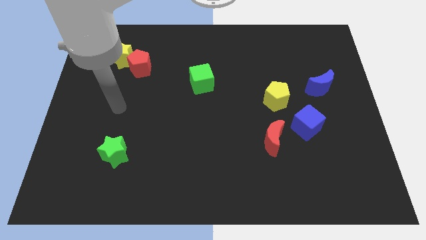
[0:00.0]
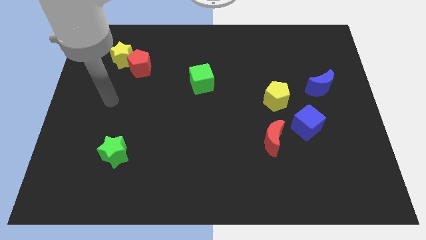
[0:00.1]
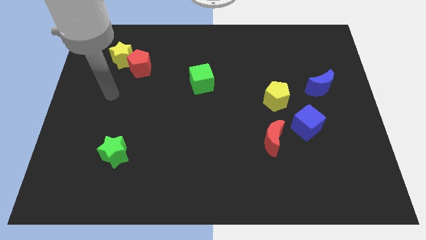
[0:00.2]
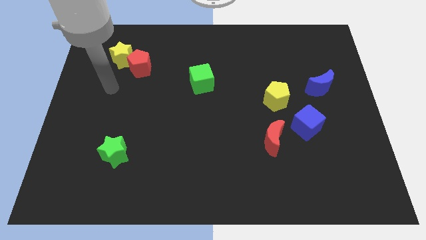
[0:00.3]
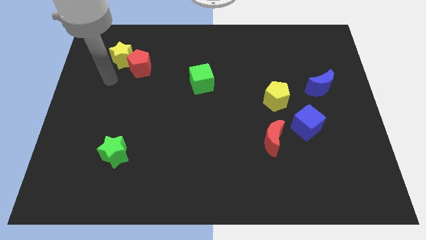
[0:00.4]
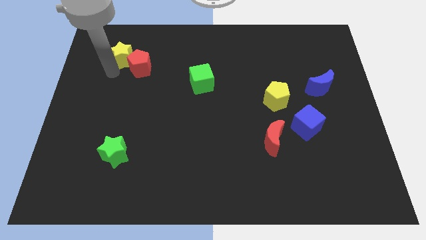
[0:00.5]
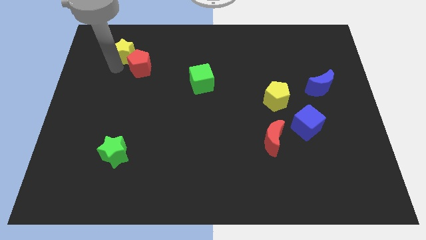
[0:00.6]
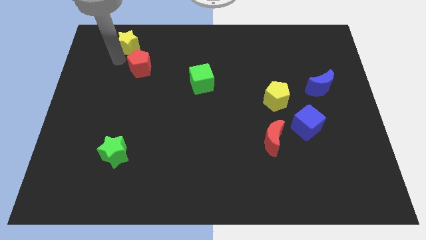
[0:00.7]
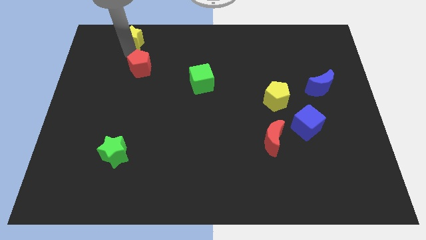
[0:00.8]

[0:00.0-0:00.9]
separate the red pentagon from the yellow star

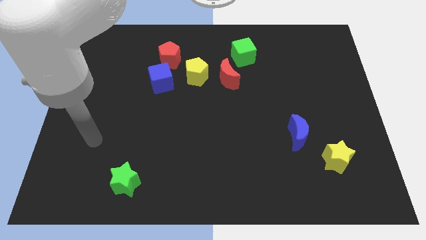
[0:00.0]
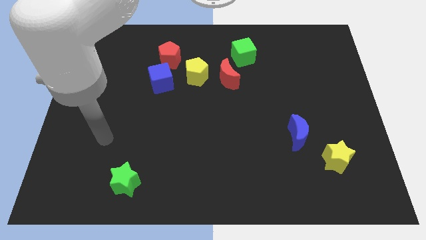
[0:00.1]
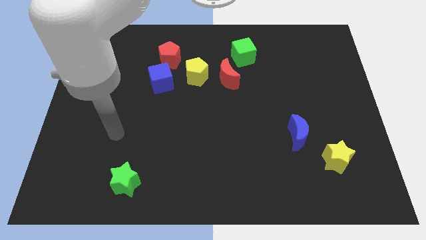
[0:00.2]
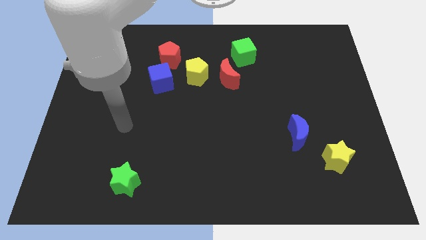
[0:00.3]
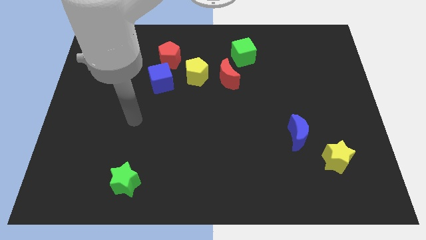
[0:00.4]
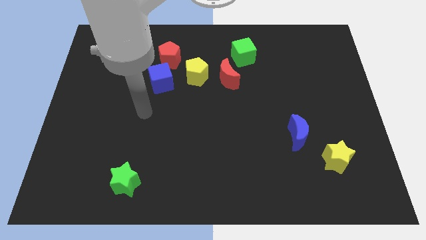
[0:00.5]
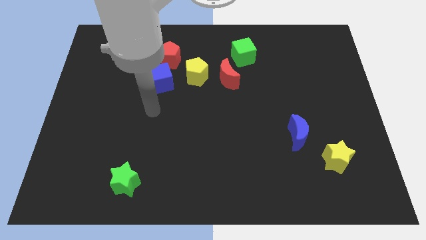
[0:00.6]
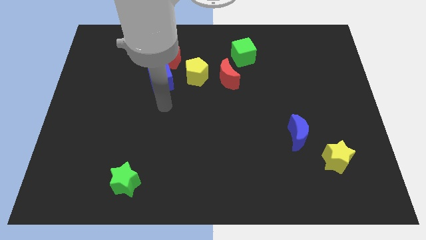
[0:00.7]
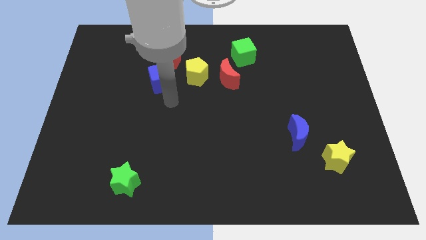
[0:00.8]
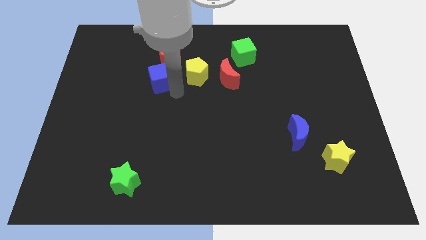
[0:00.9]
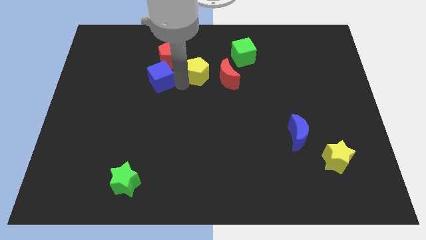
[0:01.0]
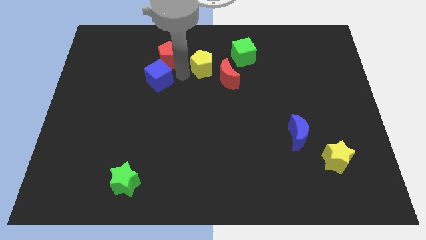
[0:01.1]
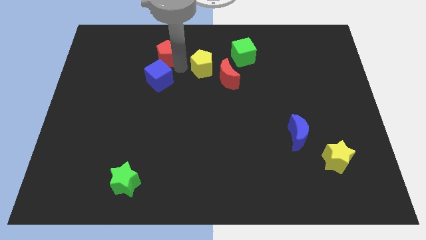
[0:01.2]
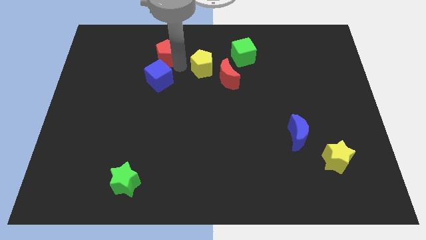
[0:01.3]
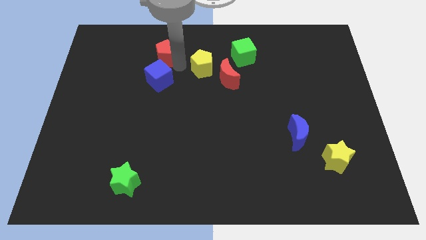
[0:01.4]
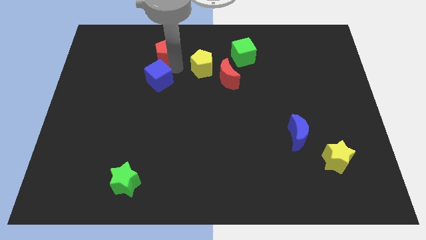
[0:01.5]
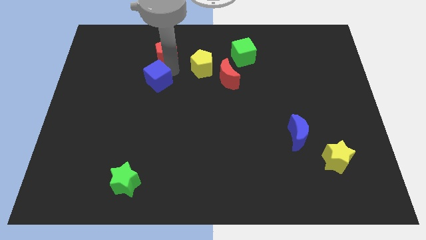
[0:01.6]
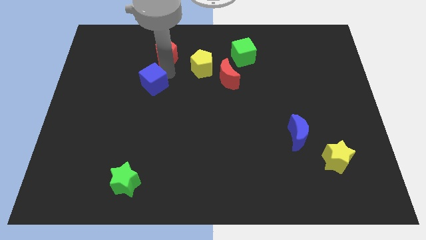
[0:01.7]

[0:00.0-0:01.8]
pull the blue cube apart from the red pentagon and yellow pentagon

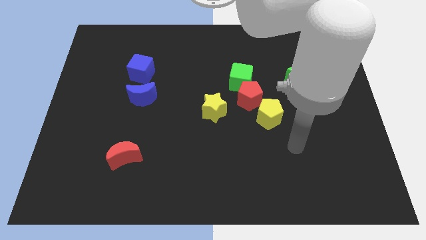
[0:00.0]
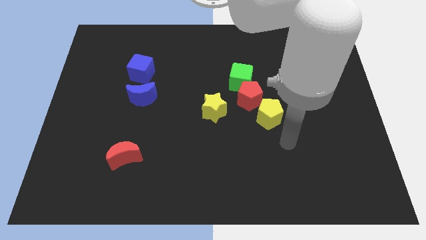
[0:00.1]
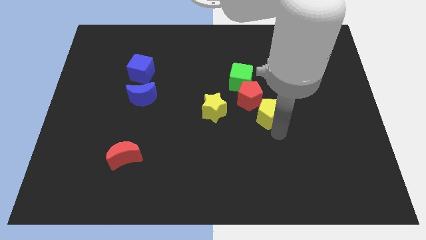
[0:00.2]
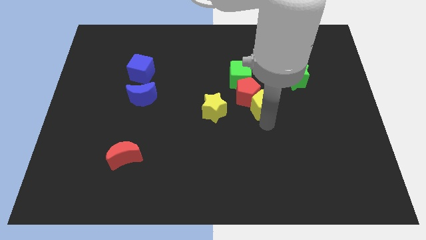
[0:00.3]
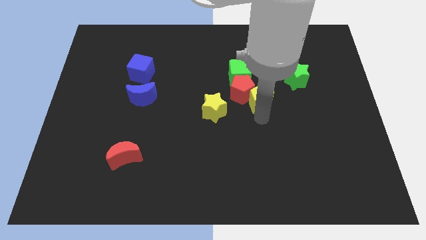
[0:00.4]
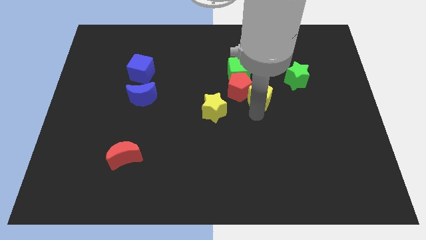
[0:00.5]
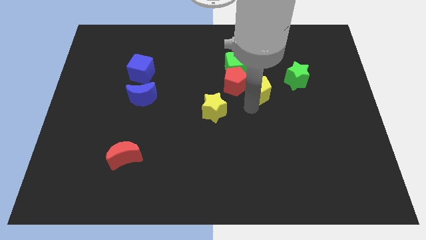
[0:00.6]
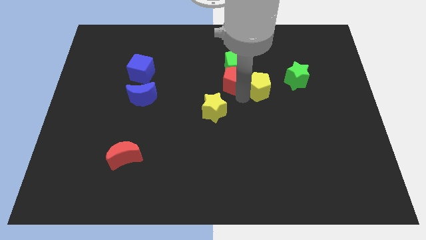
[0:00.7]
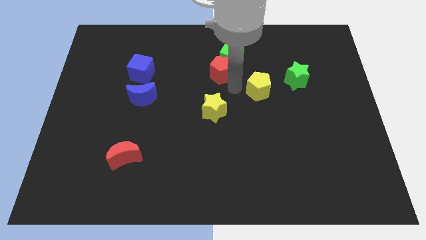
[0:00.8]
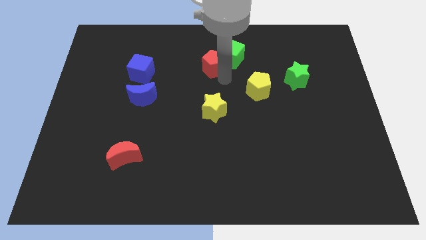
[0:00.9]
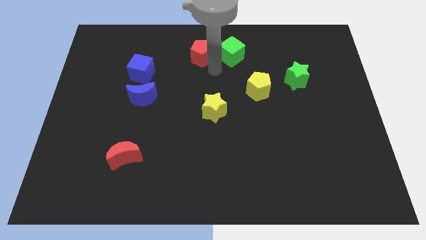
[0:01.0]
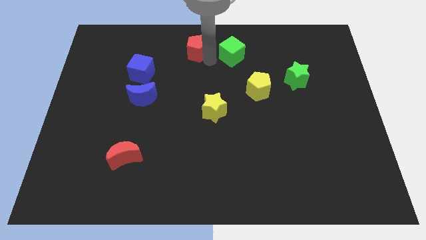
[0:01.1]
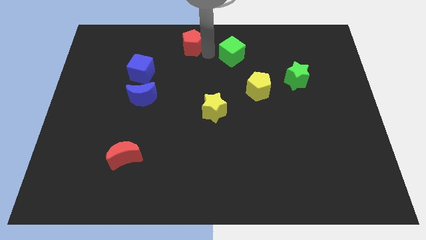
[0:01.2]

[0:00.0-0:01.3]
pull the green cube apart from the red pentagon

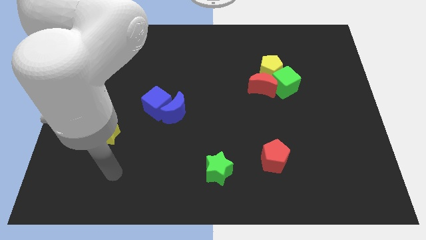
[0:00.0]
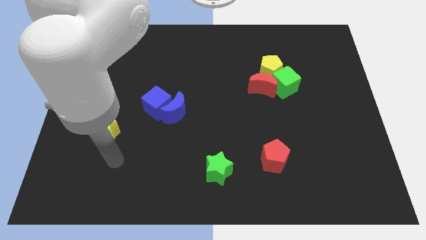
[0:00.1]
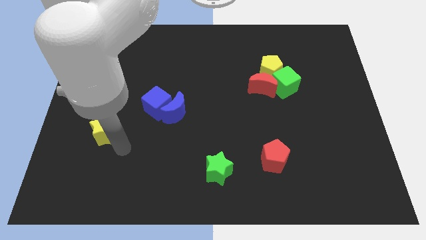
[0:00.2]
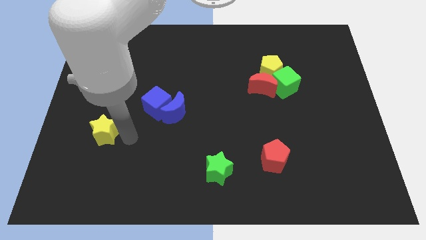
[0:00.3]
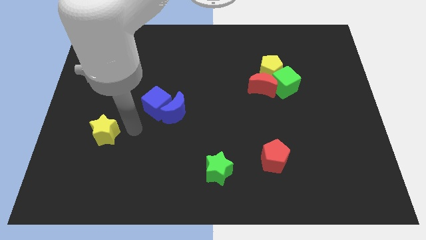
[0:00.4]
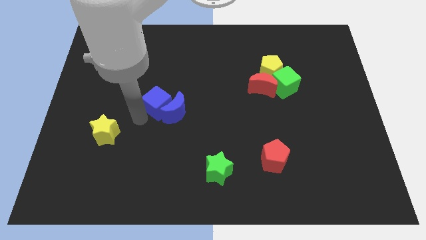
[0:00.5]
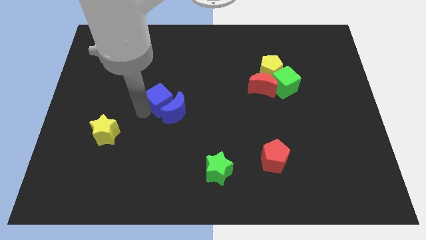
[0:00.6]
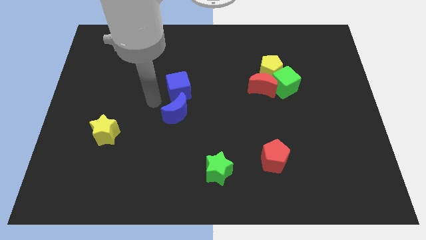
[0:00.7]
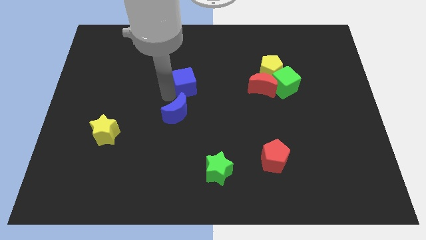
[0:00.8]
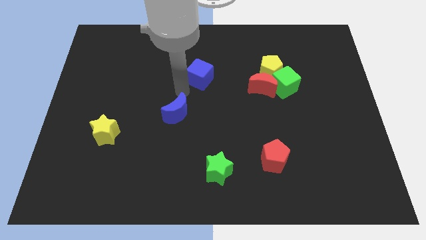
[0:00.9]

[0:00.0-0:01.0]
separate the blue moon from the blue cube

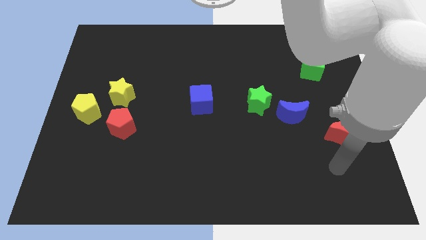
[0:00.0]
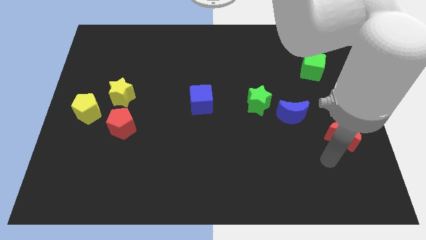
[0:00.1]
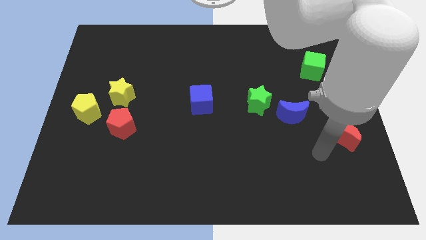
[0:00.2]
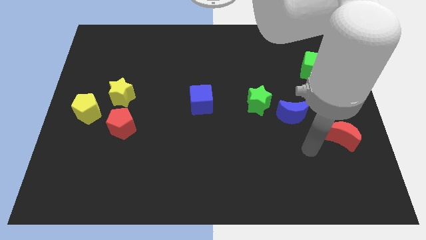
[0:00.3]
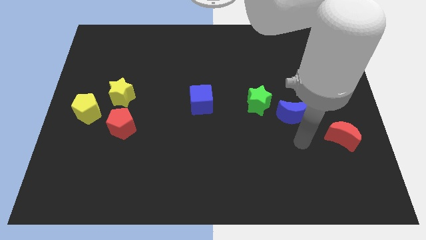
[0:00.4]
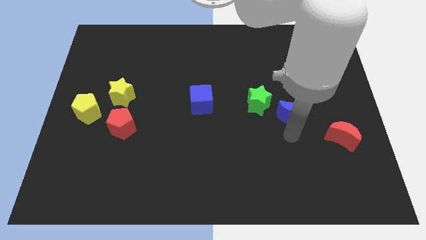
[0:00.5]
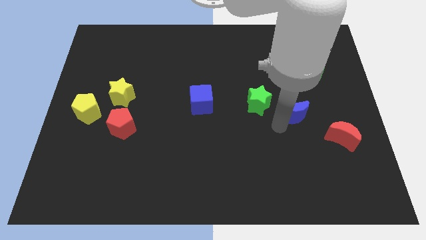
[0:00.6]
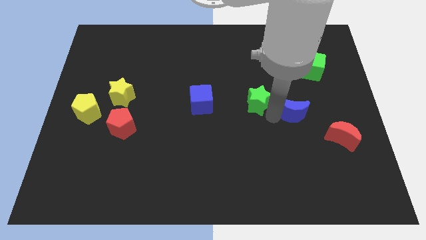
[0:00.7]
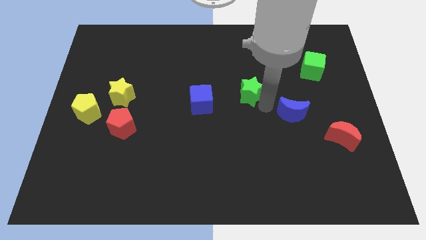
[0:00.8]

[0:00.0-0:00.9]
pull the blue moon apart from the green star

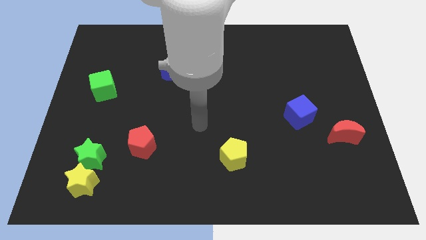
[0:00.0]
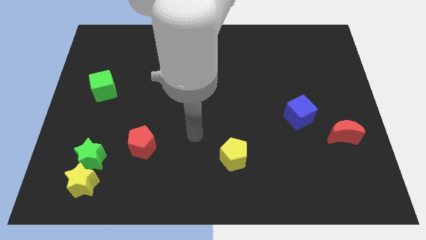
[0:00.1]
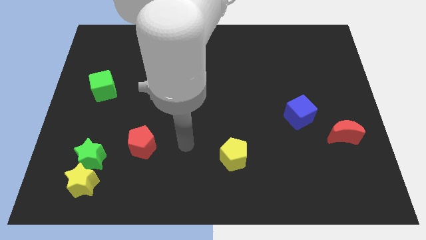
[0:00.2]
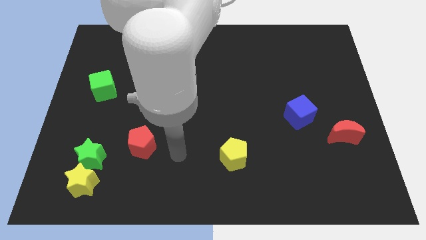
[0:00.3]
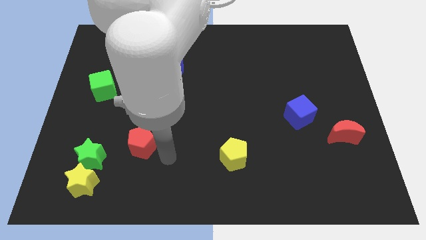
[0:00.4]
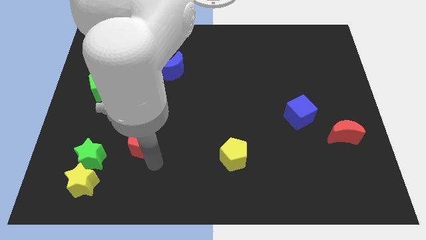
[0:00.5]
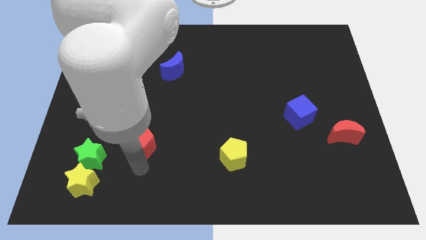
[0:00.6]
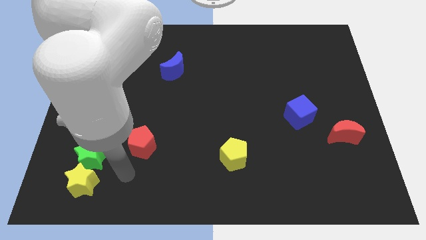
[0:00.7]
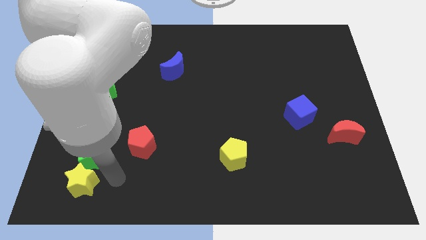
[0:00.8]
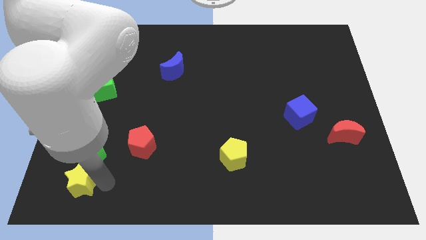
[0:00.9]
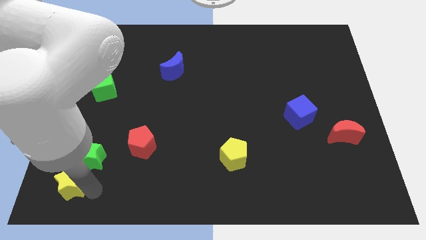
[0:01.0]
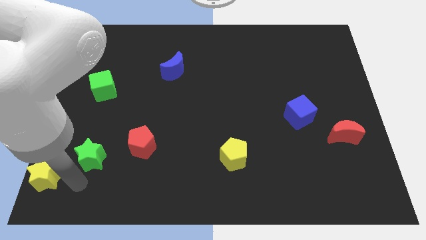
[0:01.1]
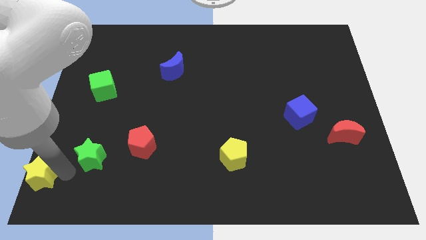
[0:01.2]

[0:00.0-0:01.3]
pull the green star apart from the yellow star

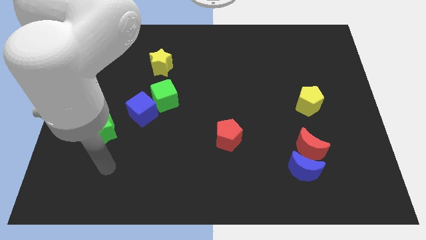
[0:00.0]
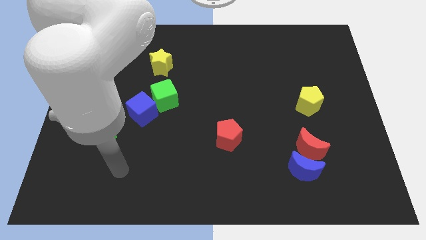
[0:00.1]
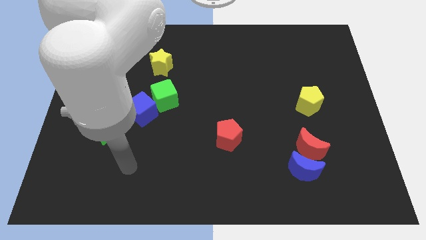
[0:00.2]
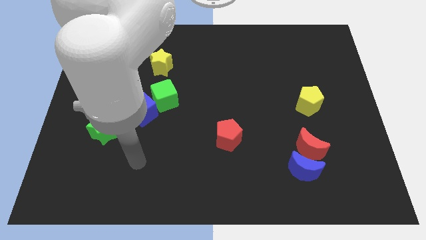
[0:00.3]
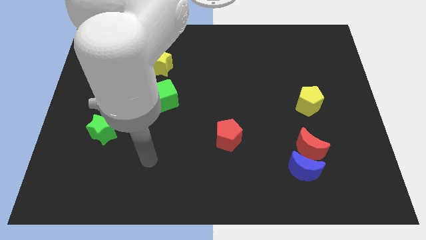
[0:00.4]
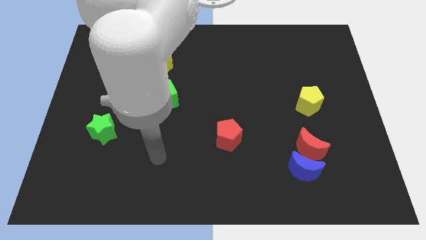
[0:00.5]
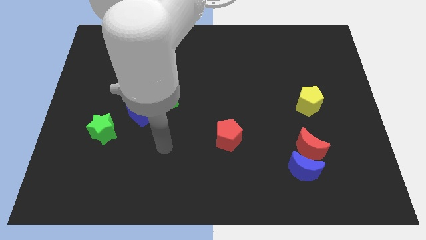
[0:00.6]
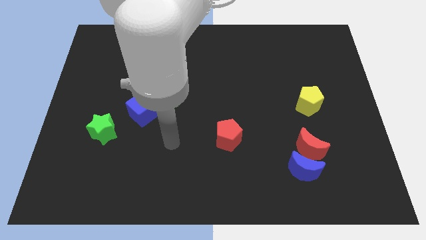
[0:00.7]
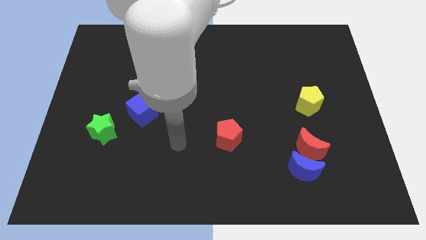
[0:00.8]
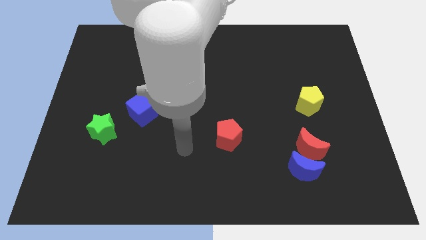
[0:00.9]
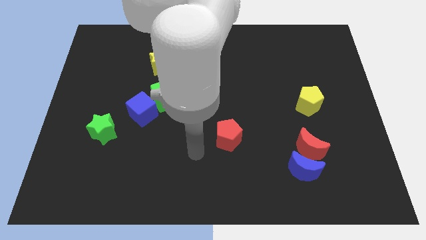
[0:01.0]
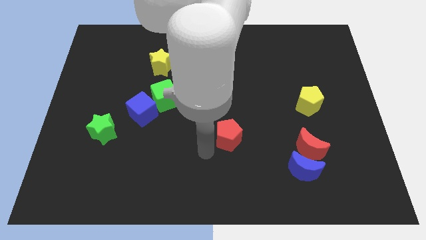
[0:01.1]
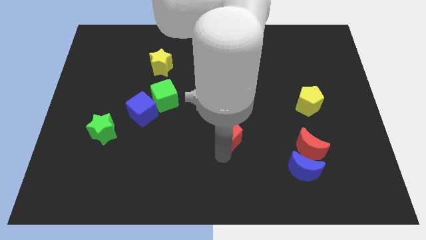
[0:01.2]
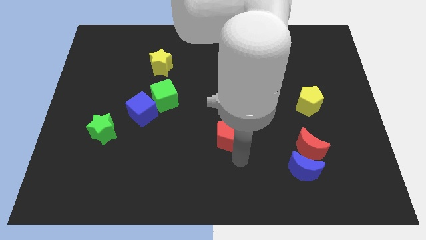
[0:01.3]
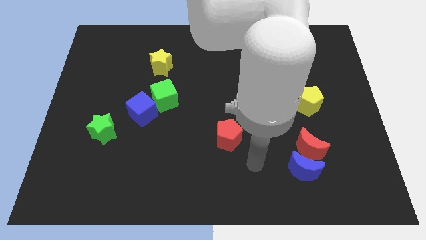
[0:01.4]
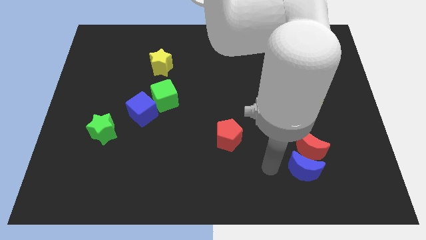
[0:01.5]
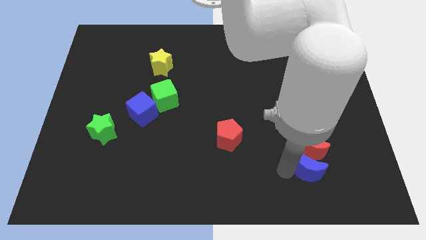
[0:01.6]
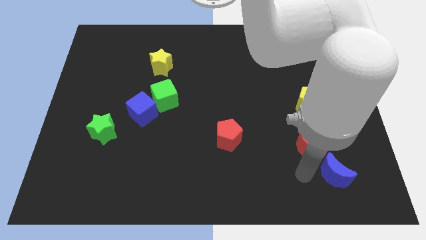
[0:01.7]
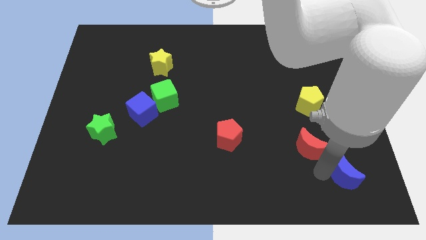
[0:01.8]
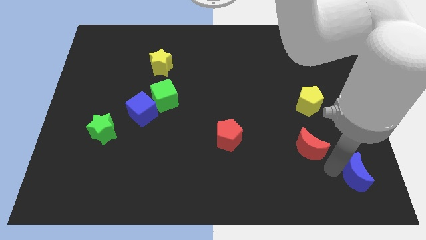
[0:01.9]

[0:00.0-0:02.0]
pull the red moon apart from the blue moon

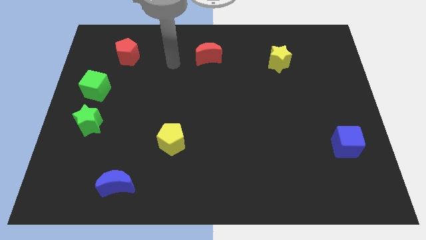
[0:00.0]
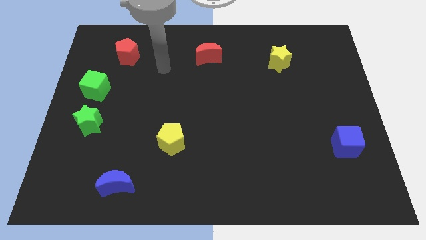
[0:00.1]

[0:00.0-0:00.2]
separate the green cube from the green star

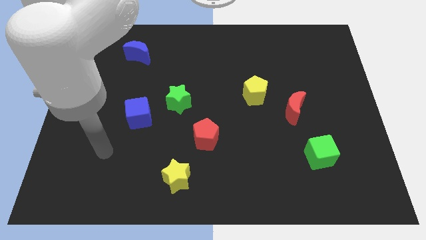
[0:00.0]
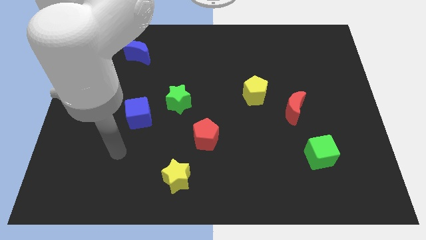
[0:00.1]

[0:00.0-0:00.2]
move the blue cube away from the green star
